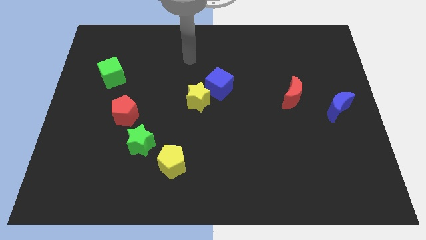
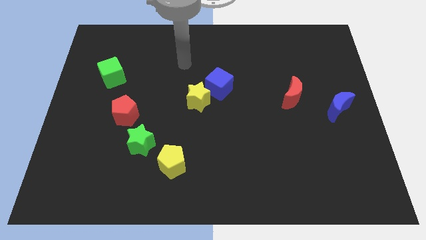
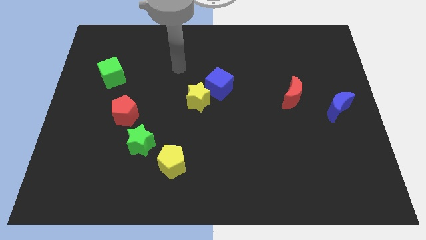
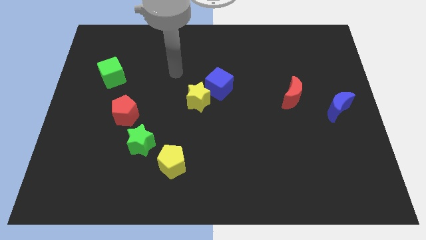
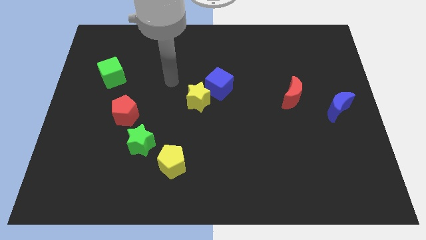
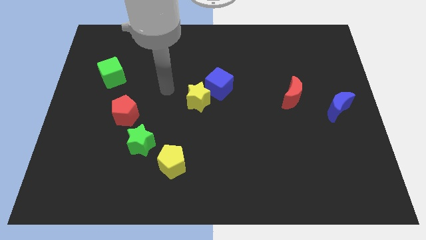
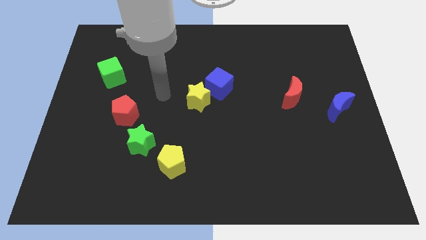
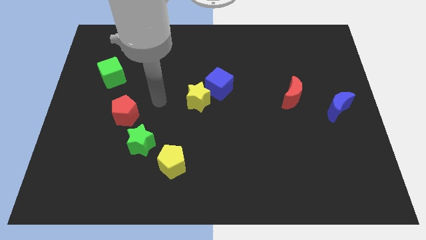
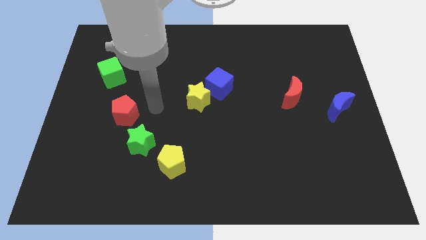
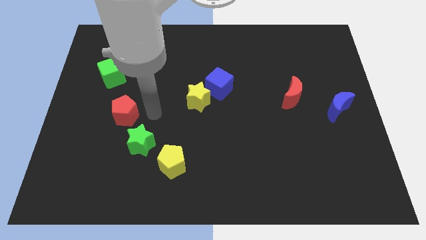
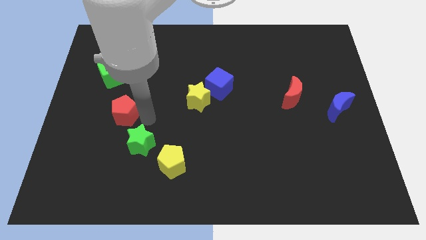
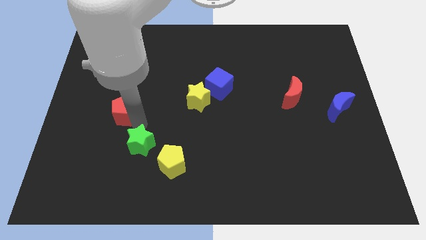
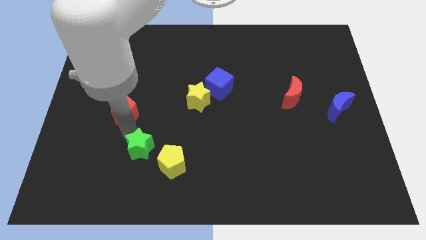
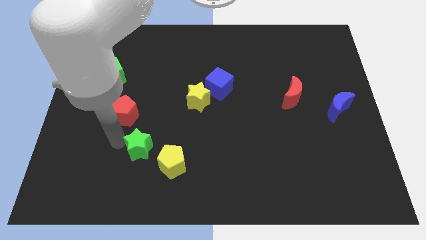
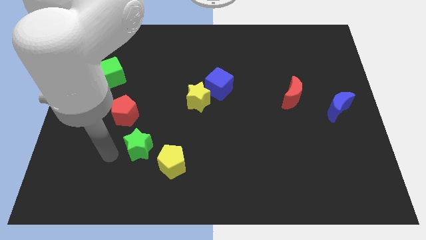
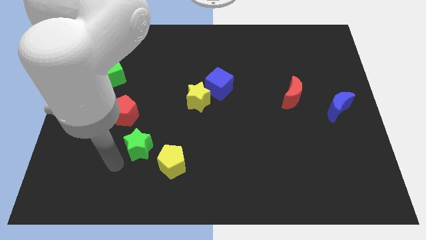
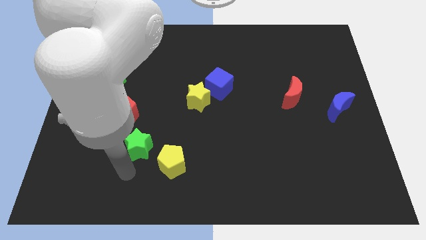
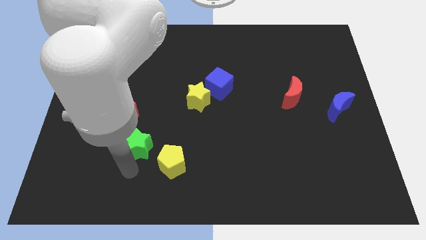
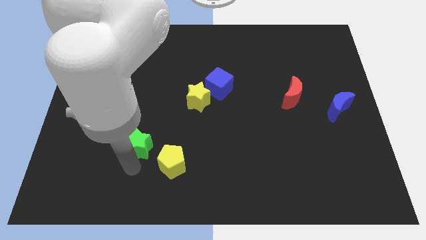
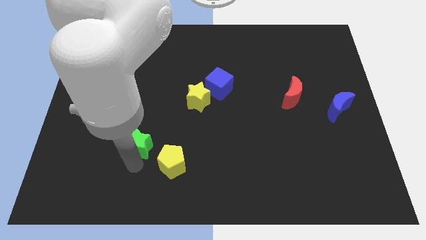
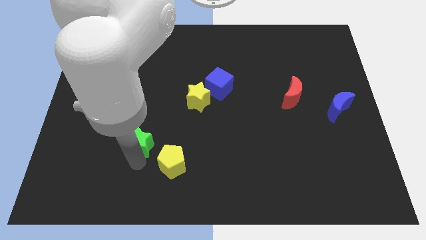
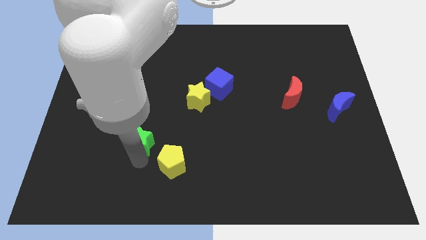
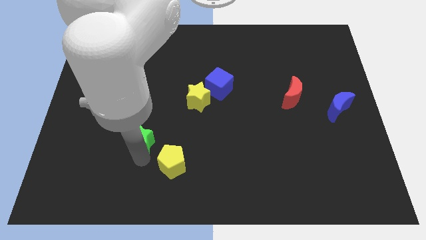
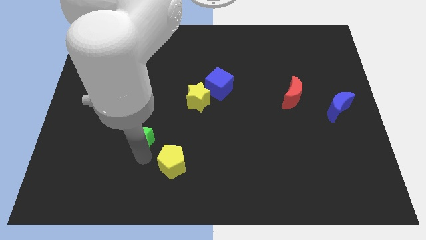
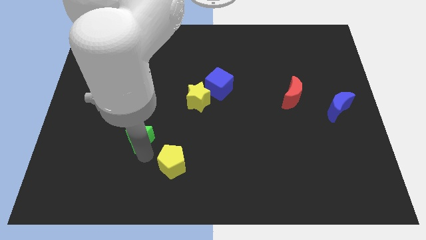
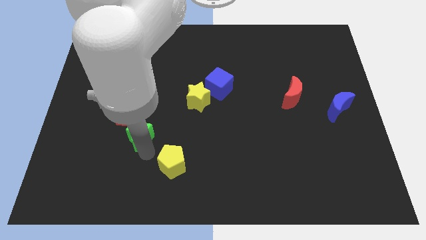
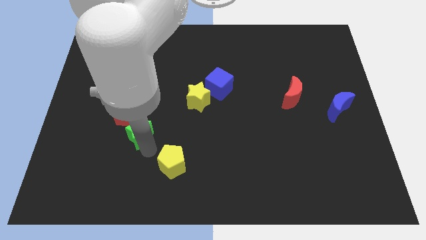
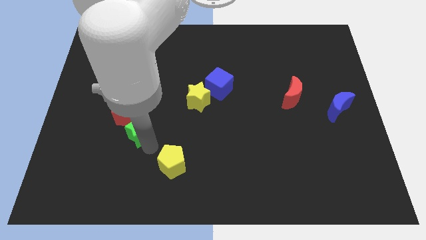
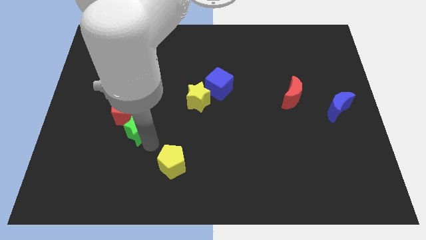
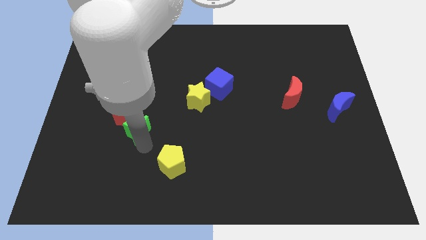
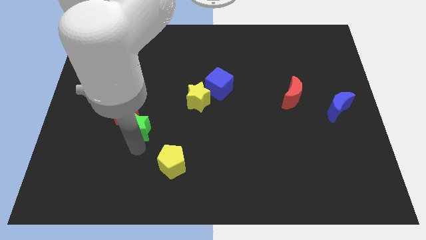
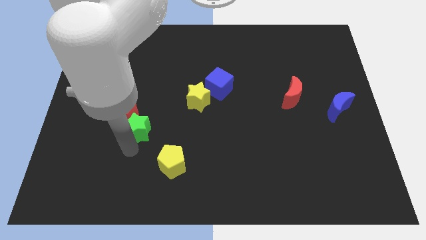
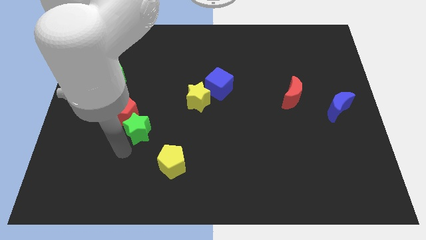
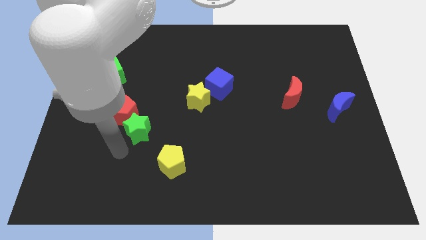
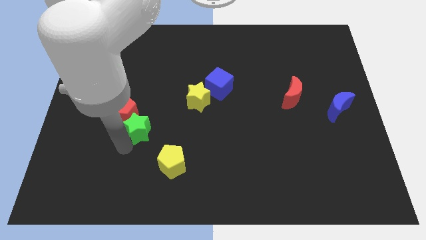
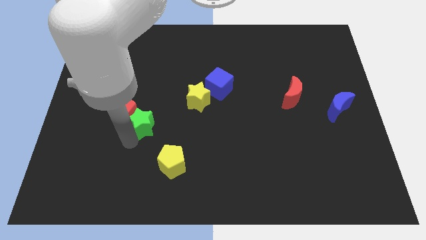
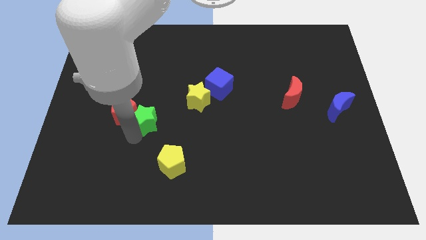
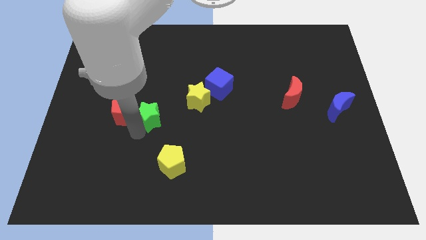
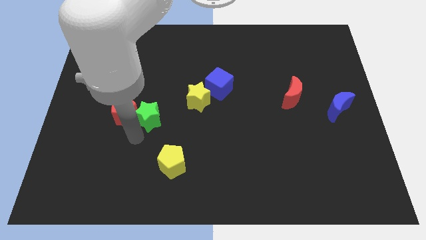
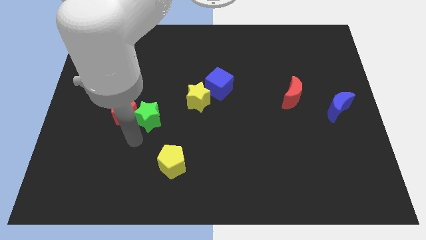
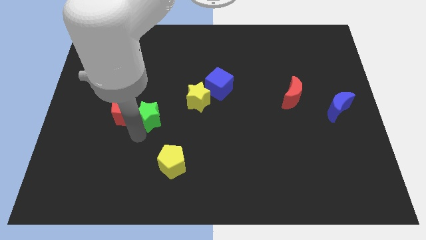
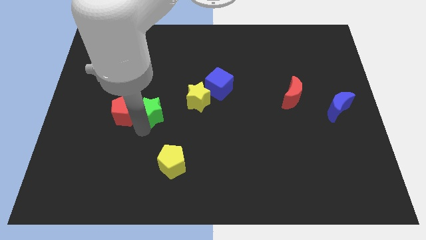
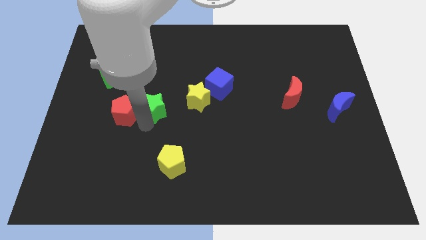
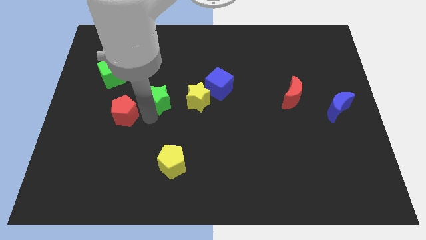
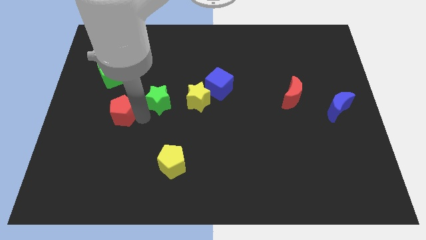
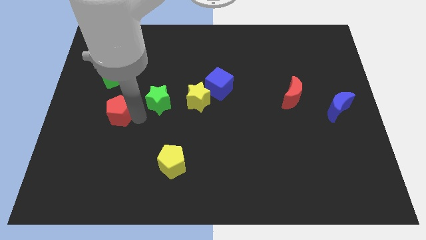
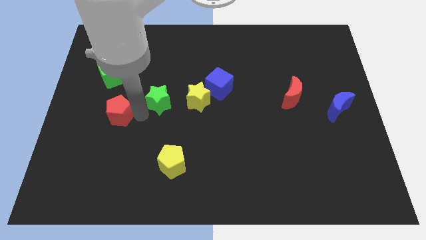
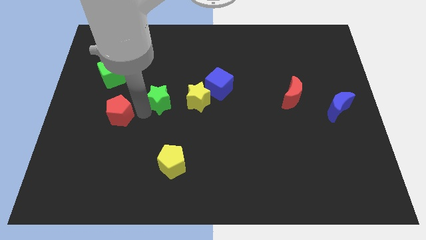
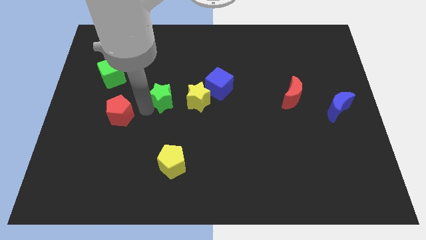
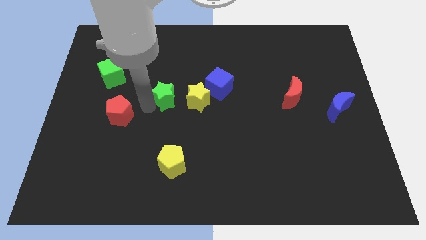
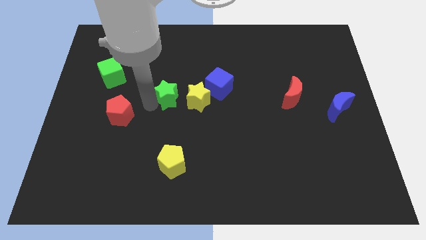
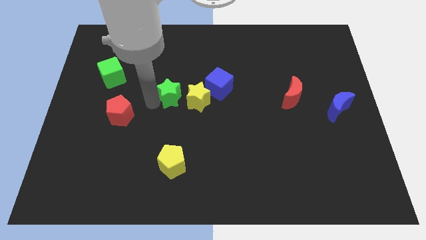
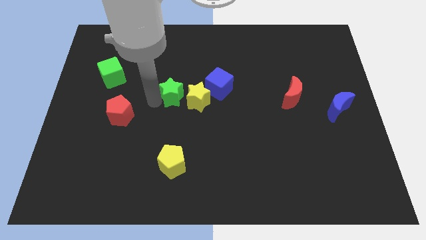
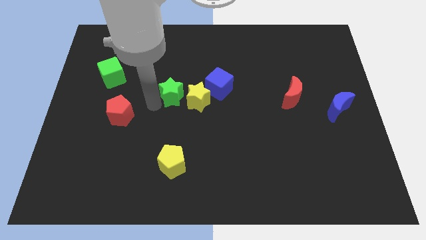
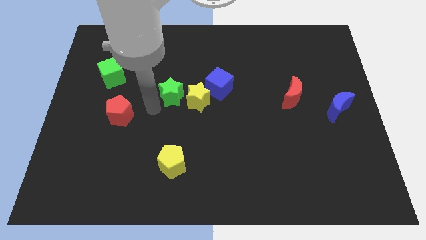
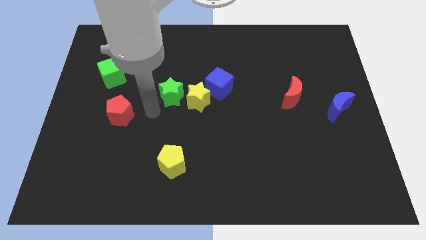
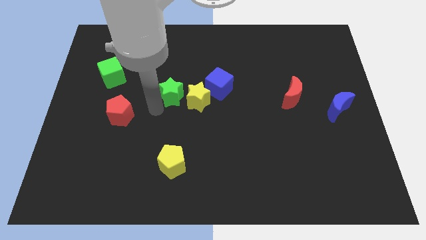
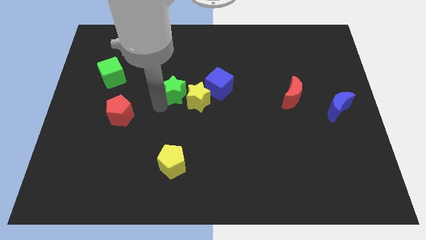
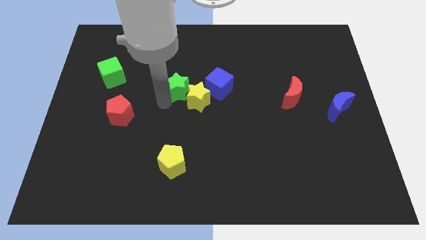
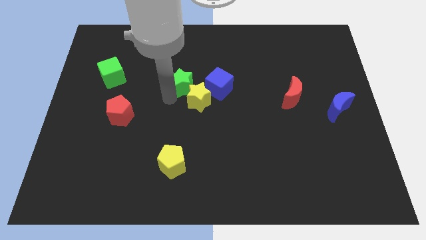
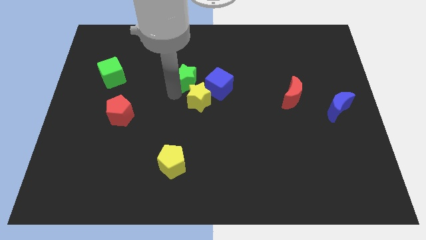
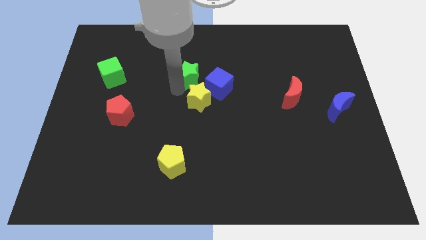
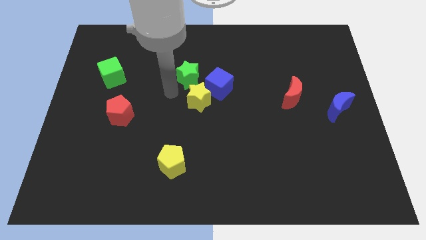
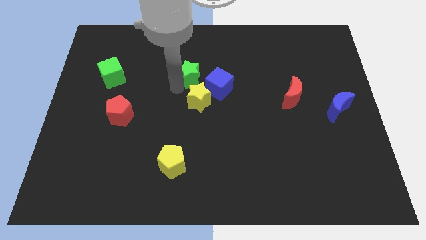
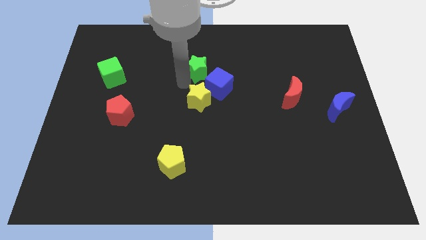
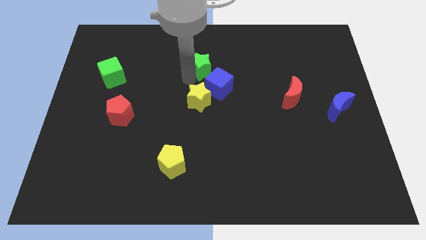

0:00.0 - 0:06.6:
slide the green star to the top of the blue cube

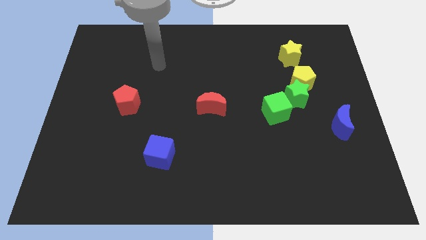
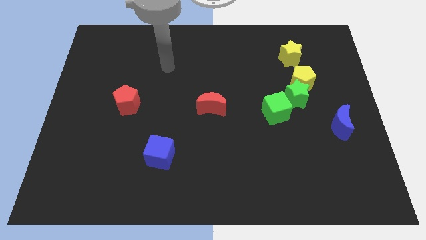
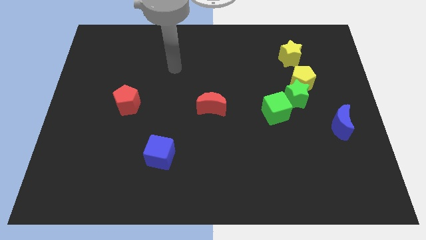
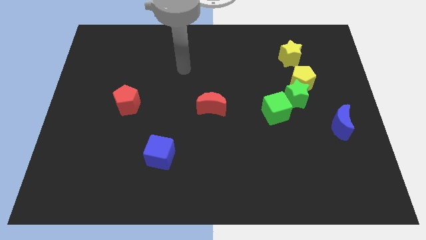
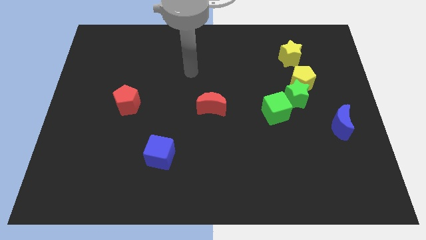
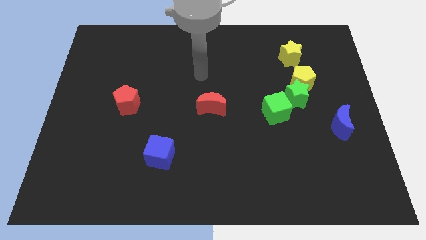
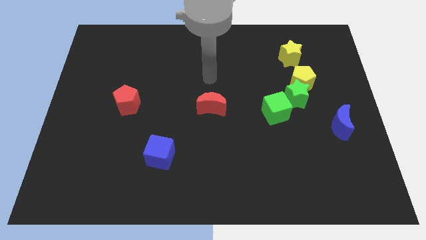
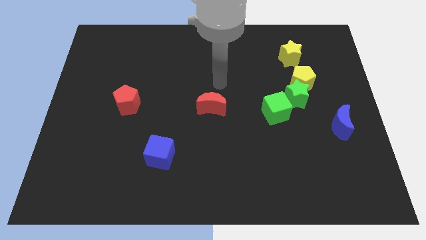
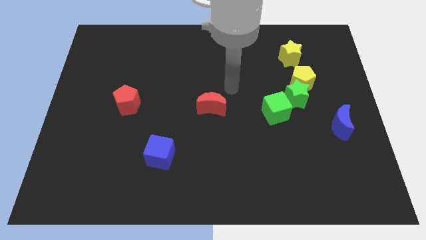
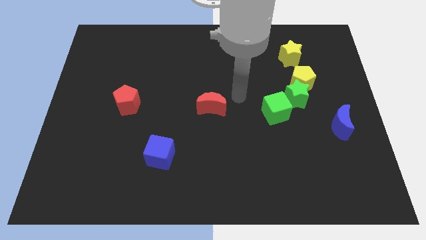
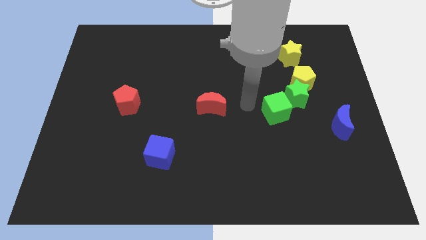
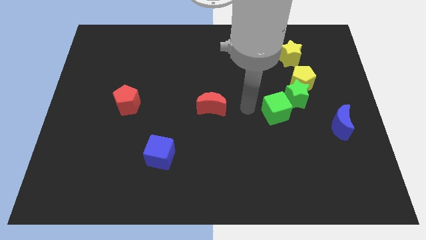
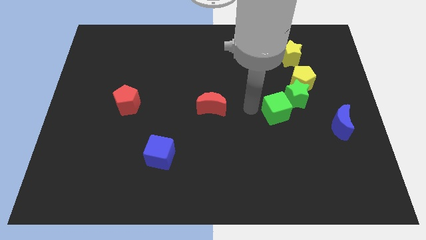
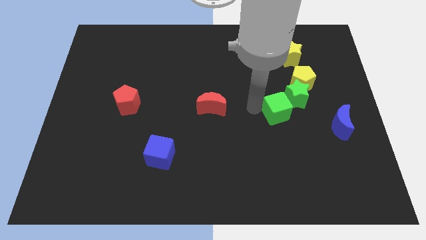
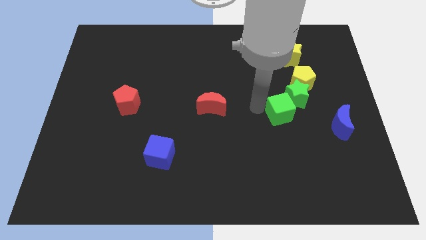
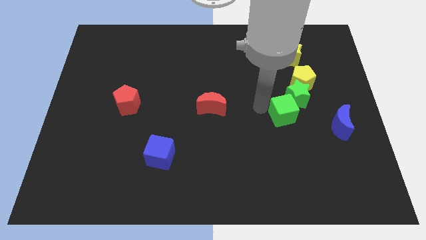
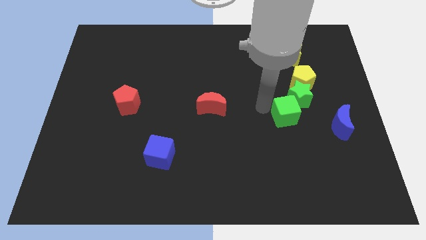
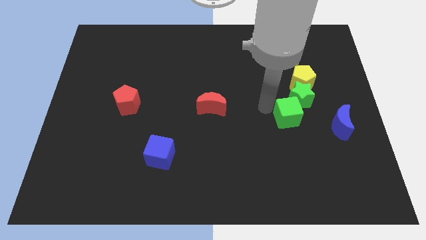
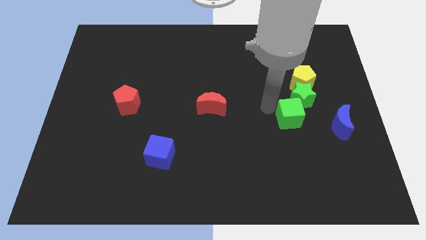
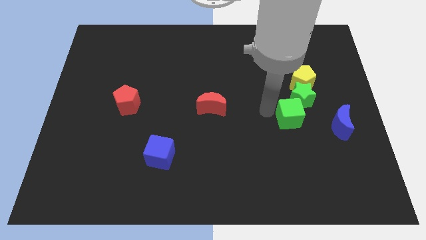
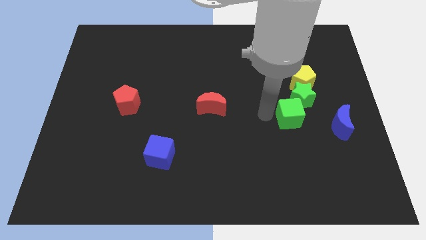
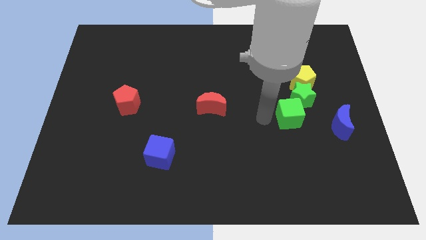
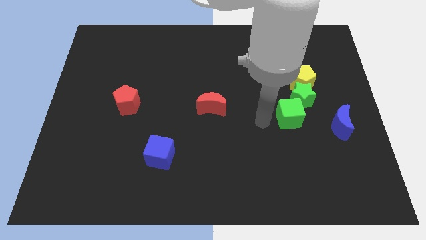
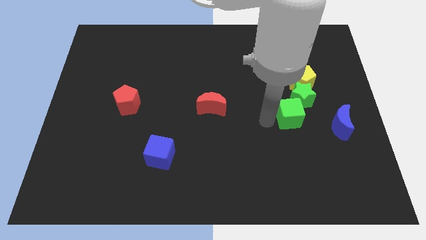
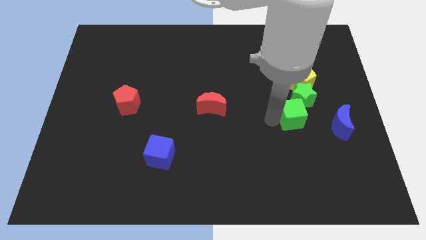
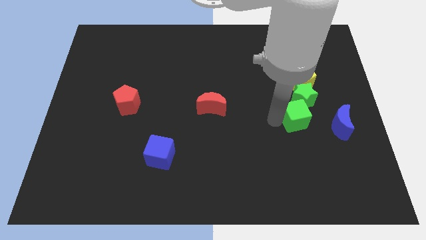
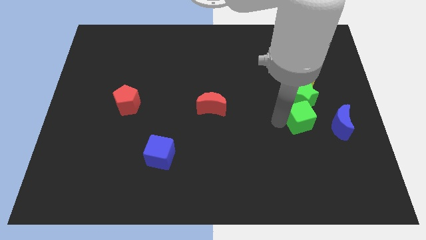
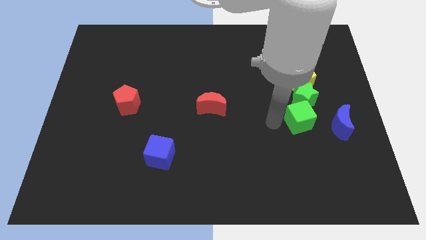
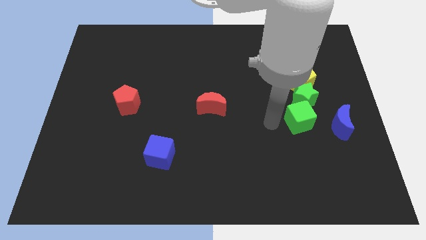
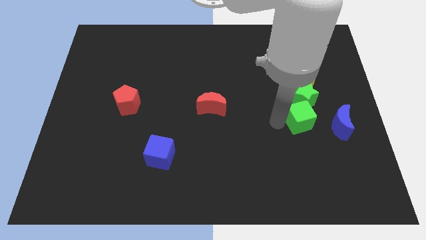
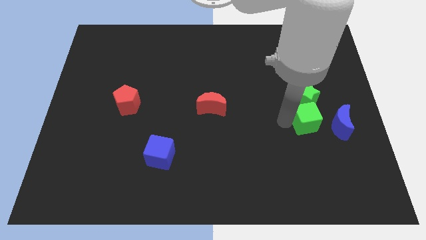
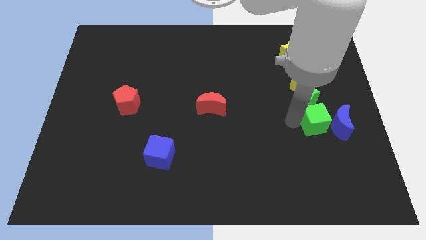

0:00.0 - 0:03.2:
slide the green cube to the bottom right of the green star
